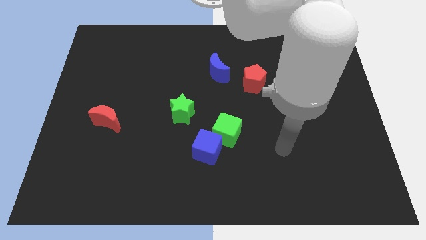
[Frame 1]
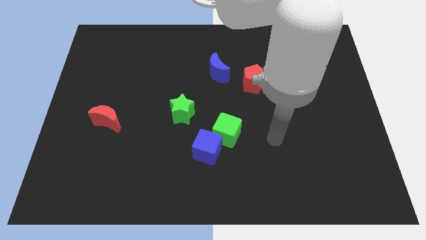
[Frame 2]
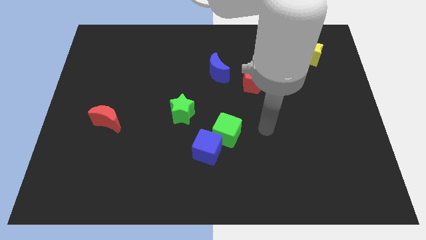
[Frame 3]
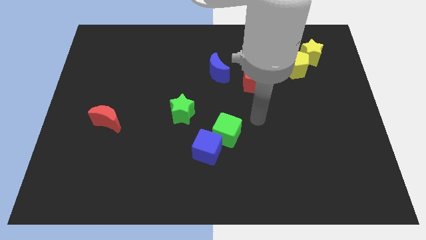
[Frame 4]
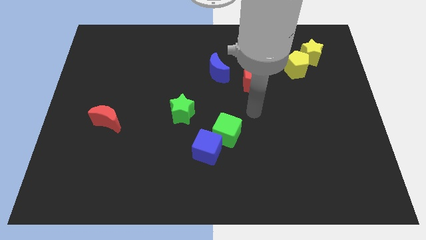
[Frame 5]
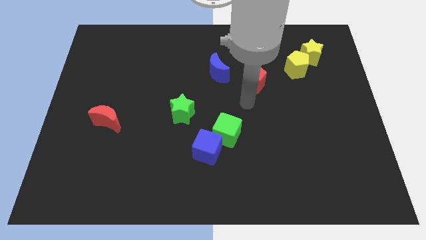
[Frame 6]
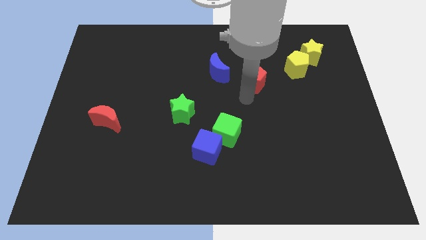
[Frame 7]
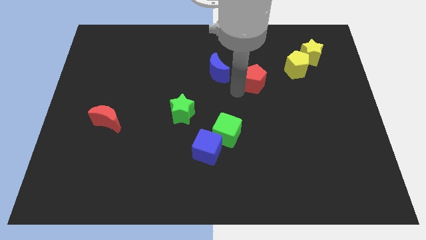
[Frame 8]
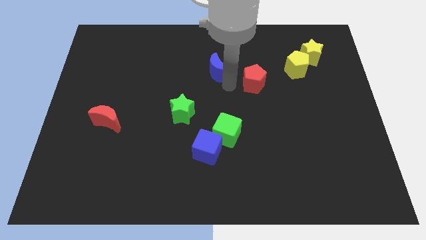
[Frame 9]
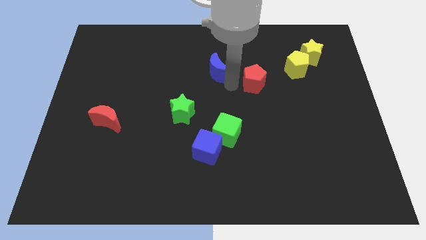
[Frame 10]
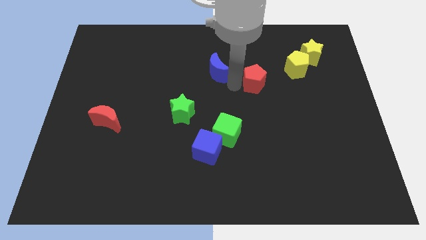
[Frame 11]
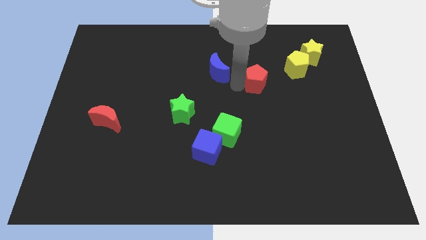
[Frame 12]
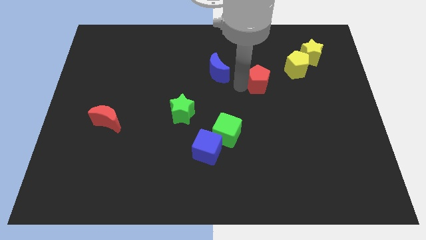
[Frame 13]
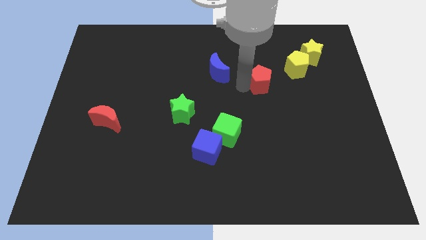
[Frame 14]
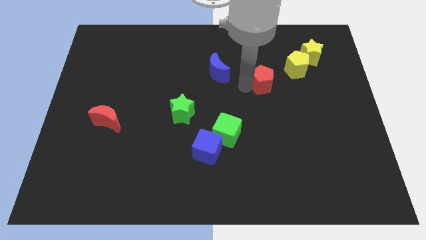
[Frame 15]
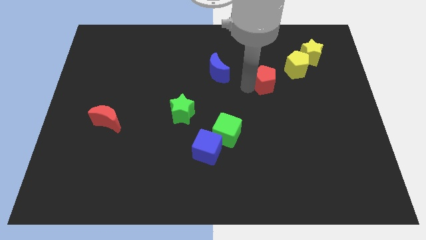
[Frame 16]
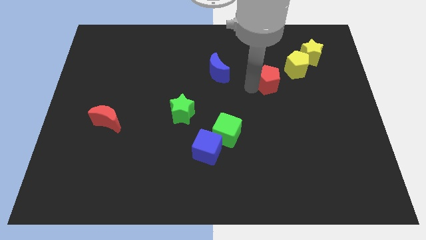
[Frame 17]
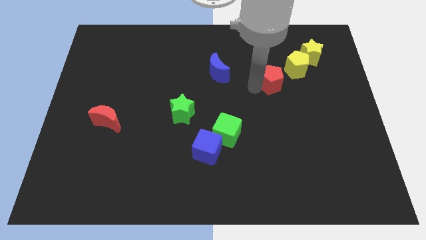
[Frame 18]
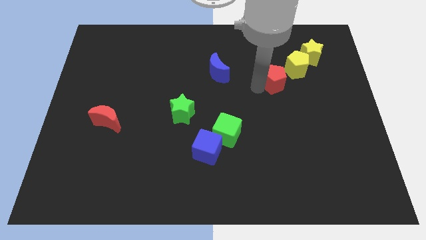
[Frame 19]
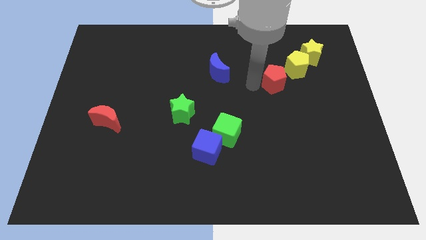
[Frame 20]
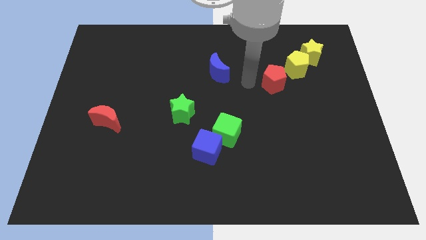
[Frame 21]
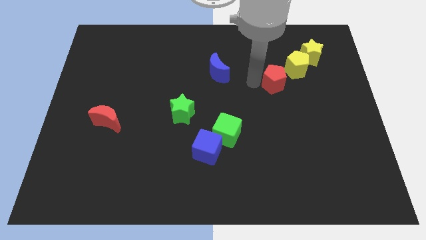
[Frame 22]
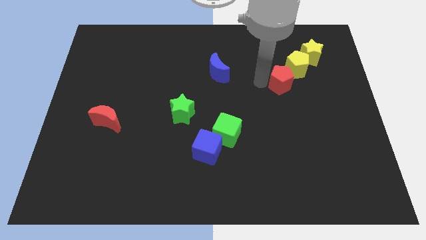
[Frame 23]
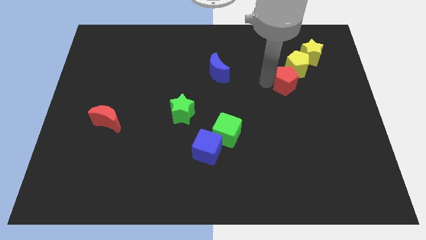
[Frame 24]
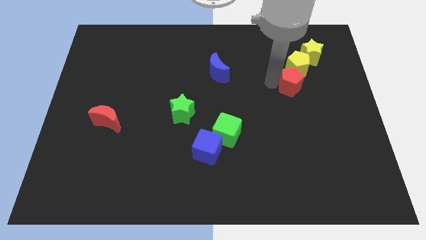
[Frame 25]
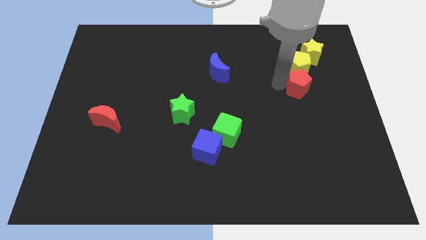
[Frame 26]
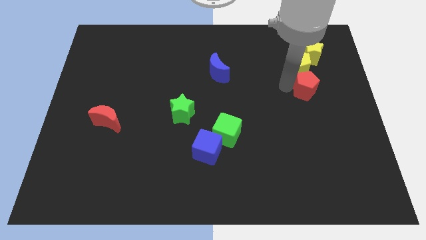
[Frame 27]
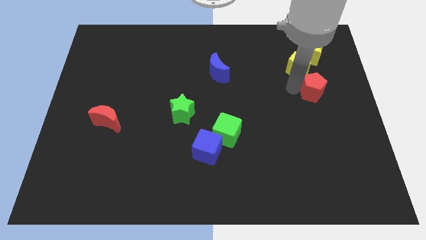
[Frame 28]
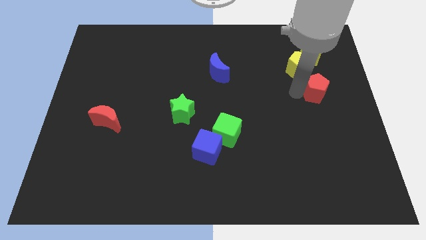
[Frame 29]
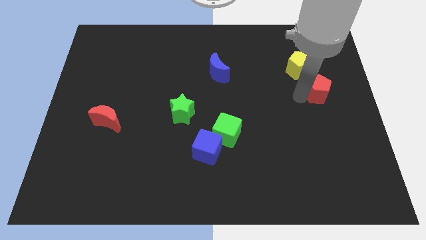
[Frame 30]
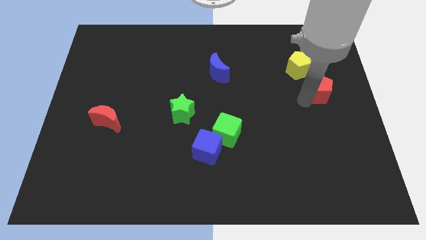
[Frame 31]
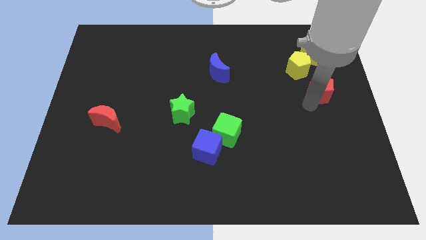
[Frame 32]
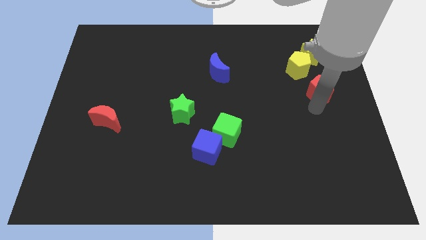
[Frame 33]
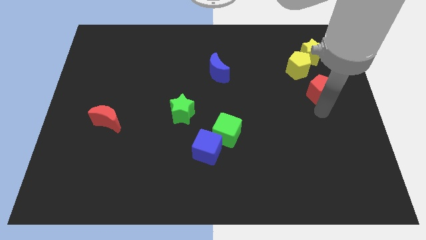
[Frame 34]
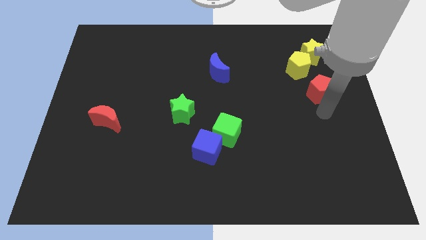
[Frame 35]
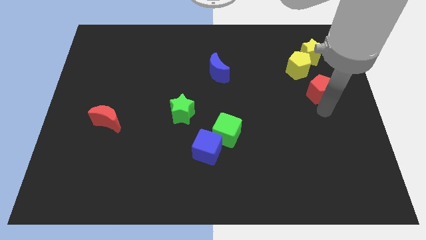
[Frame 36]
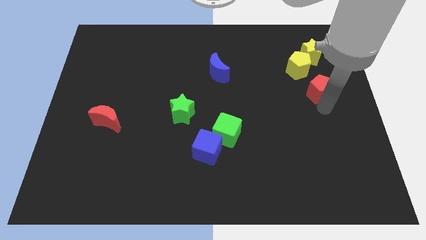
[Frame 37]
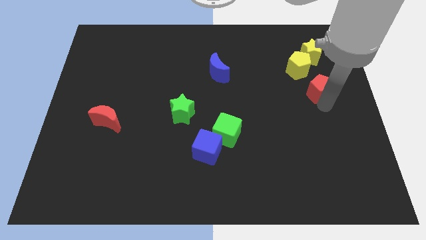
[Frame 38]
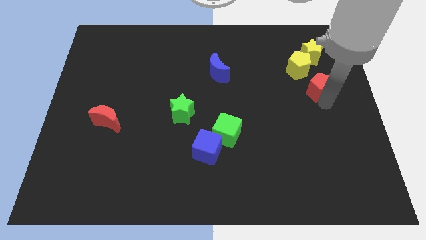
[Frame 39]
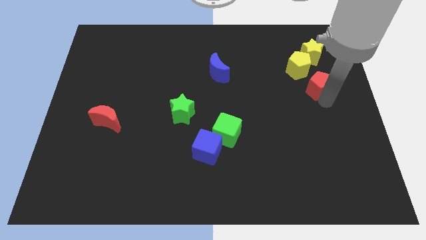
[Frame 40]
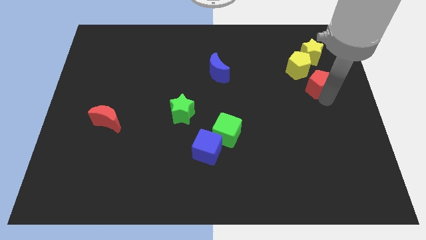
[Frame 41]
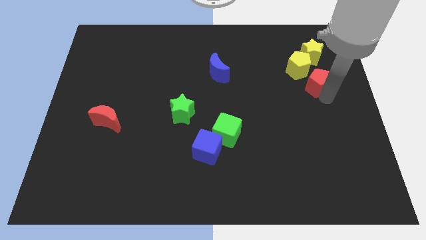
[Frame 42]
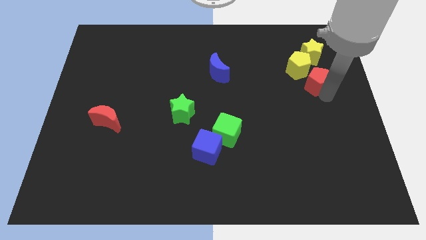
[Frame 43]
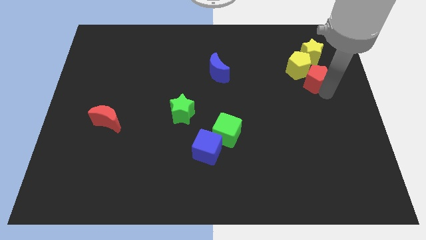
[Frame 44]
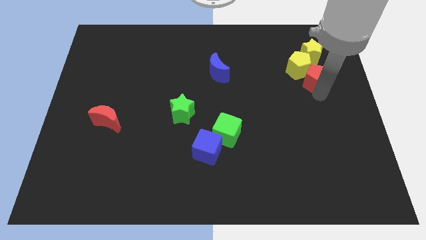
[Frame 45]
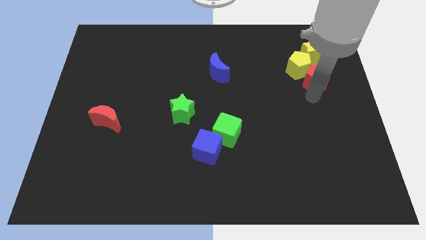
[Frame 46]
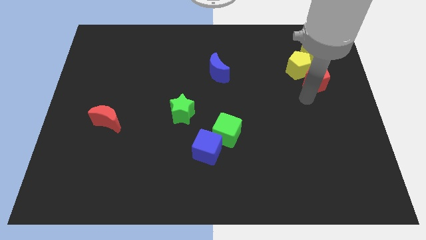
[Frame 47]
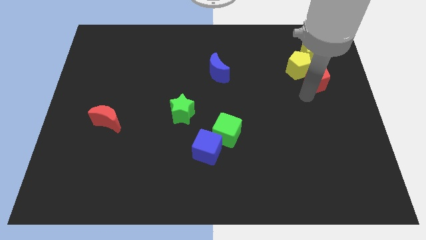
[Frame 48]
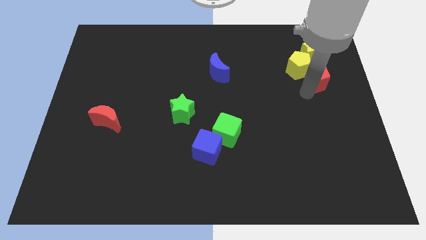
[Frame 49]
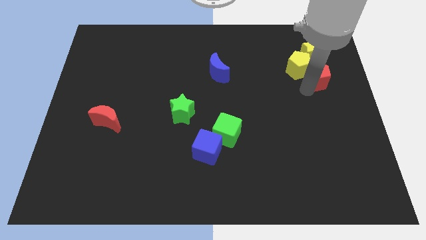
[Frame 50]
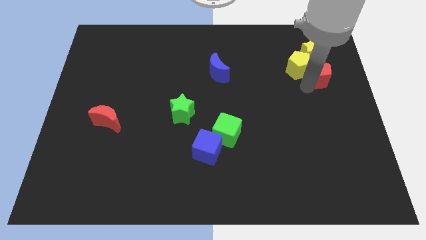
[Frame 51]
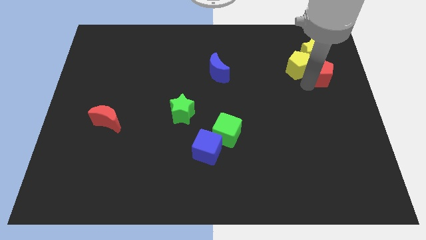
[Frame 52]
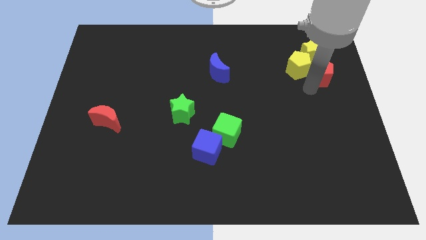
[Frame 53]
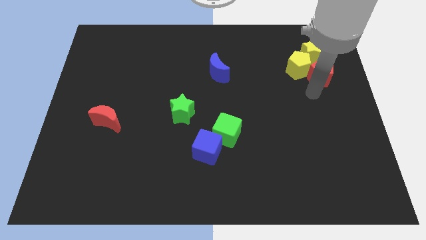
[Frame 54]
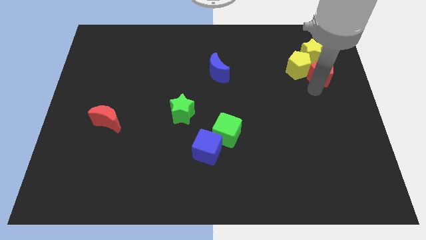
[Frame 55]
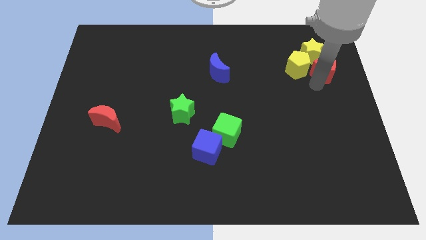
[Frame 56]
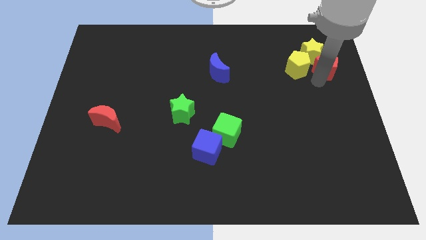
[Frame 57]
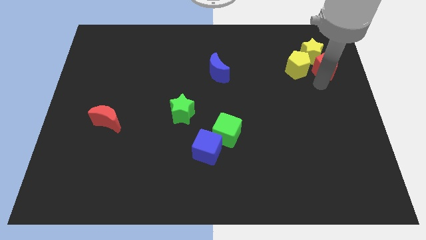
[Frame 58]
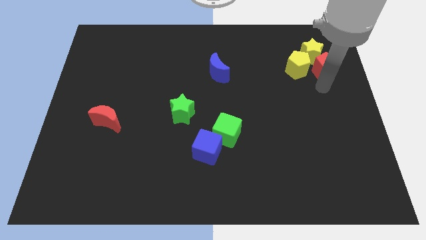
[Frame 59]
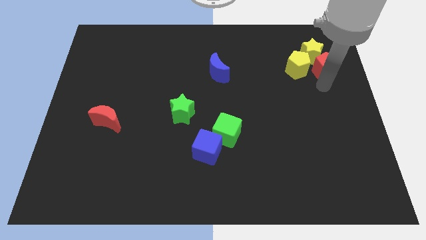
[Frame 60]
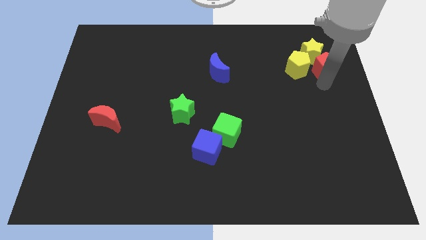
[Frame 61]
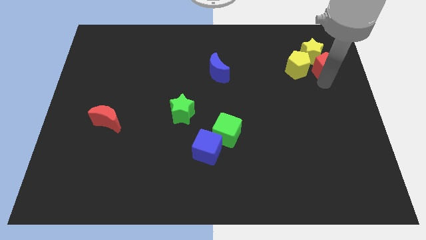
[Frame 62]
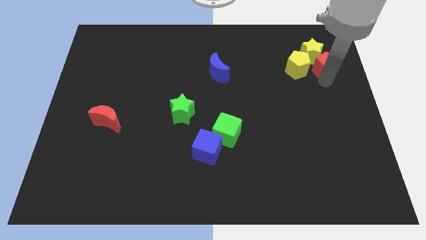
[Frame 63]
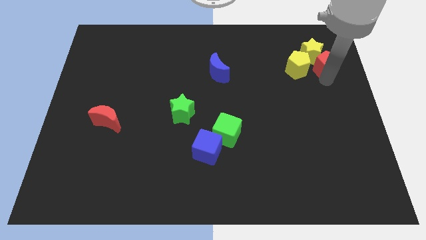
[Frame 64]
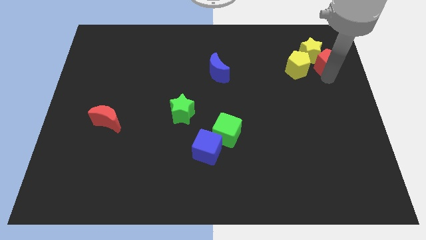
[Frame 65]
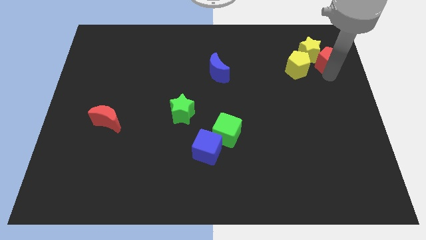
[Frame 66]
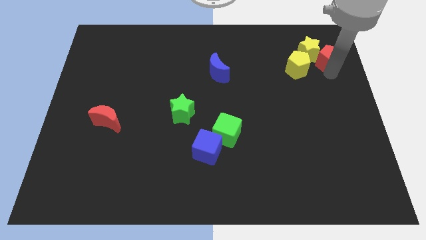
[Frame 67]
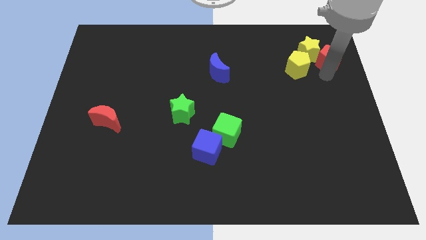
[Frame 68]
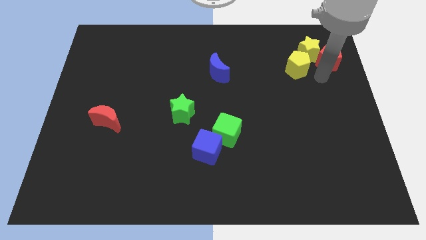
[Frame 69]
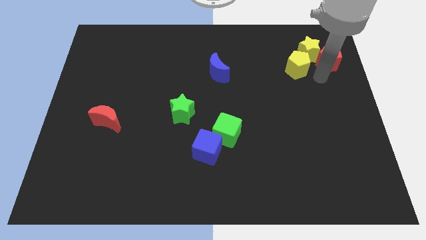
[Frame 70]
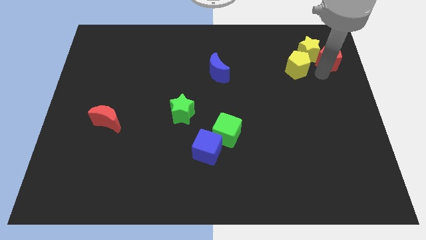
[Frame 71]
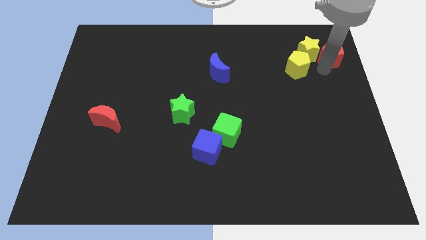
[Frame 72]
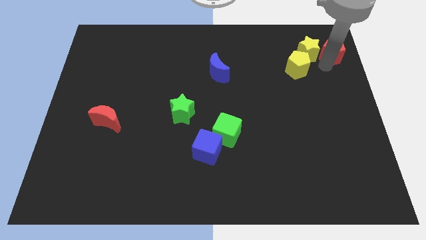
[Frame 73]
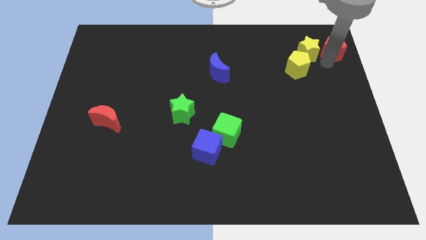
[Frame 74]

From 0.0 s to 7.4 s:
slide the red pentagon to the top right
